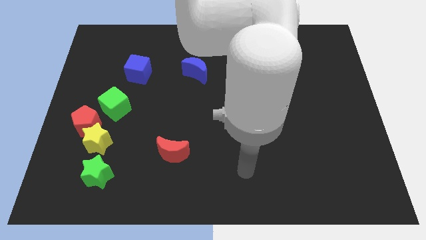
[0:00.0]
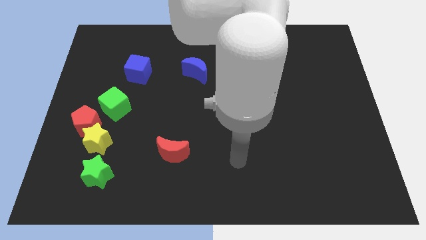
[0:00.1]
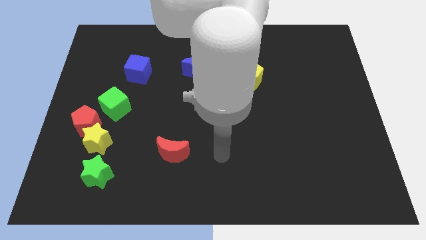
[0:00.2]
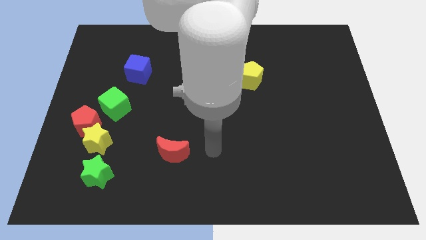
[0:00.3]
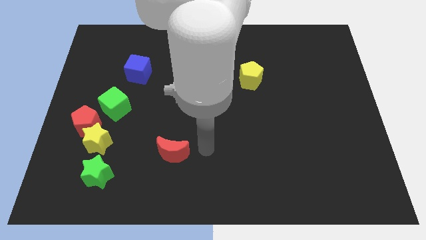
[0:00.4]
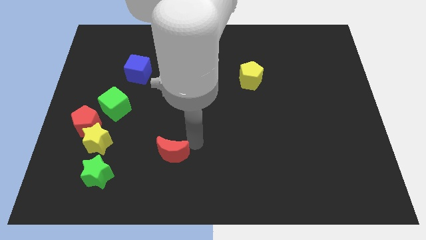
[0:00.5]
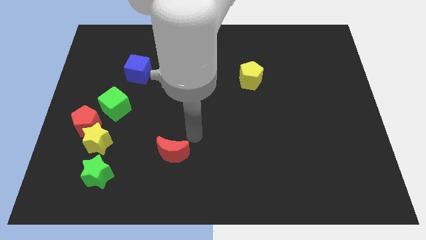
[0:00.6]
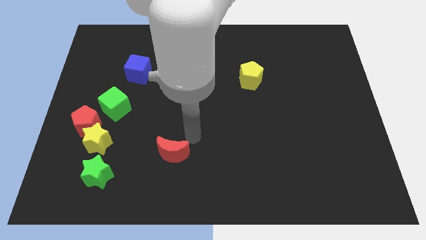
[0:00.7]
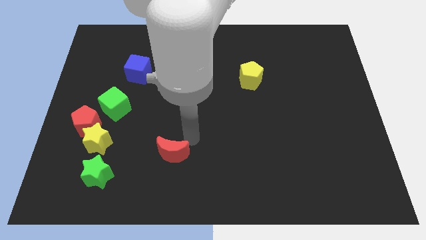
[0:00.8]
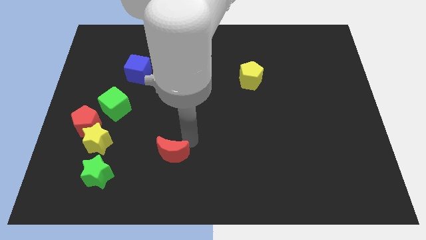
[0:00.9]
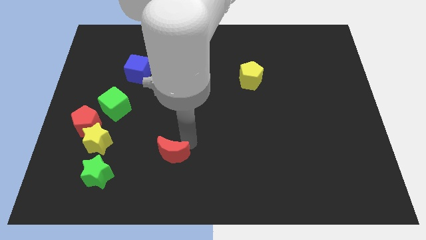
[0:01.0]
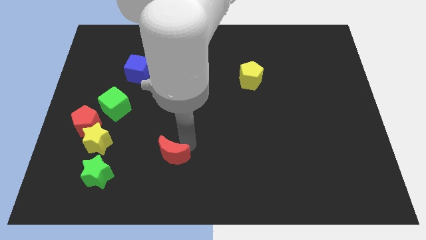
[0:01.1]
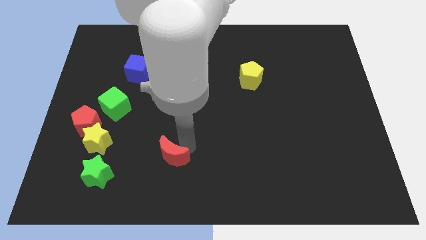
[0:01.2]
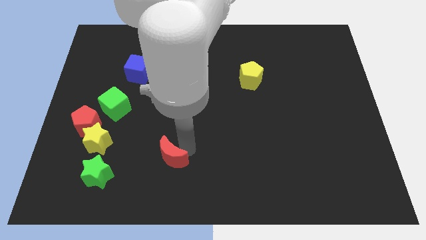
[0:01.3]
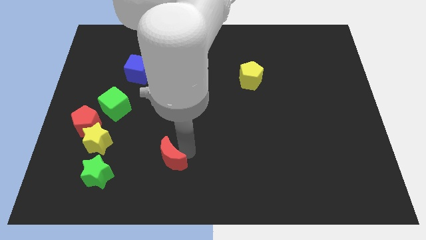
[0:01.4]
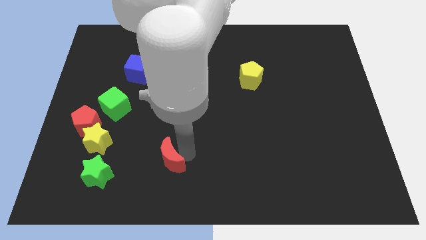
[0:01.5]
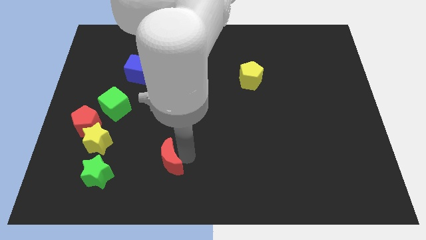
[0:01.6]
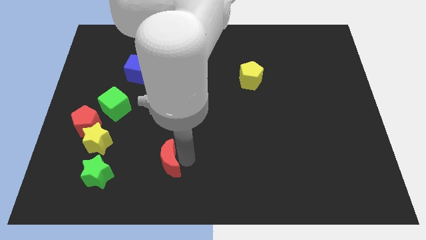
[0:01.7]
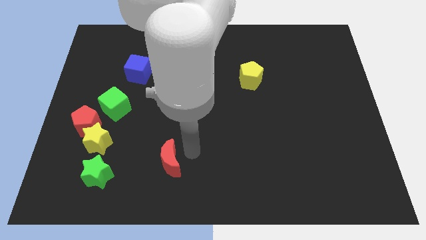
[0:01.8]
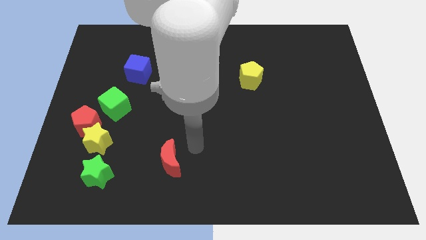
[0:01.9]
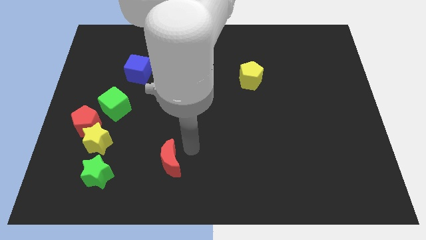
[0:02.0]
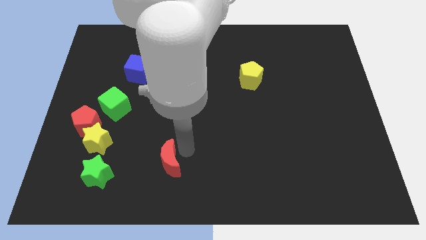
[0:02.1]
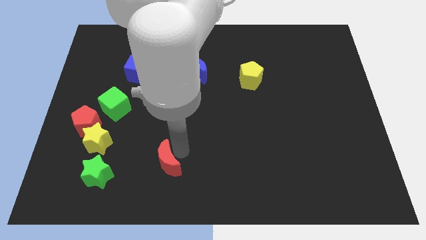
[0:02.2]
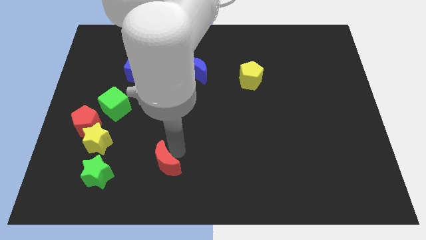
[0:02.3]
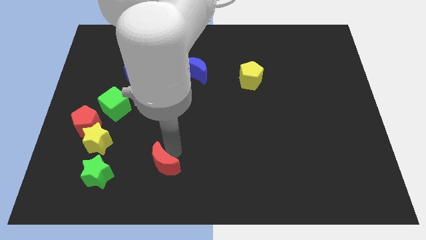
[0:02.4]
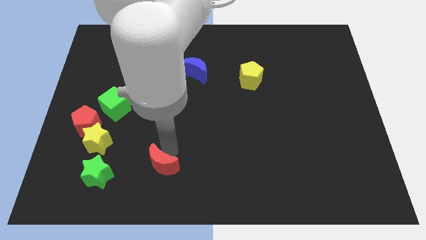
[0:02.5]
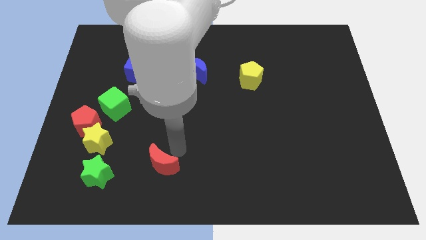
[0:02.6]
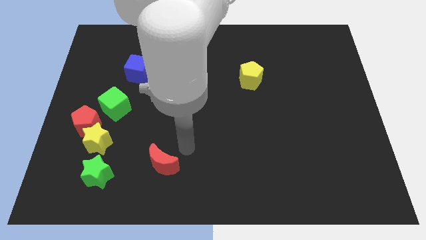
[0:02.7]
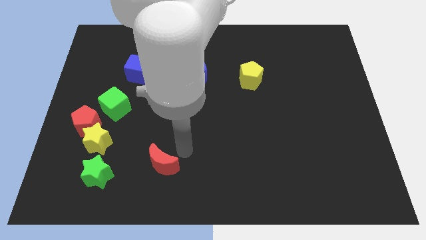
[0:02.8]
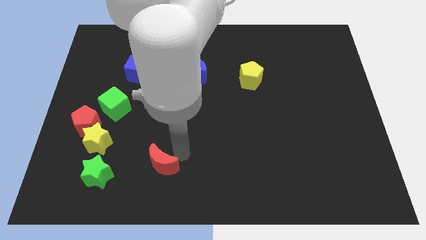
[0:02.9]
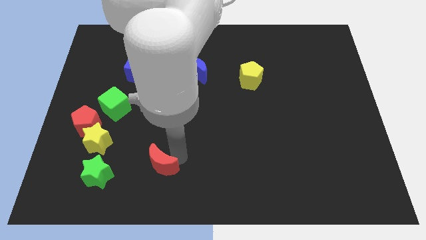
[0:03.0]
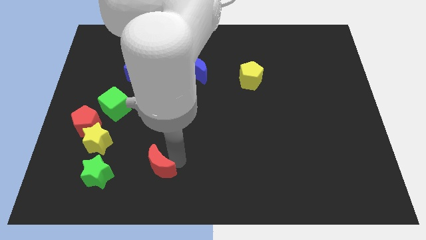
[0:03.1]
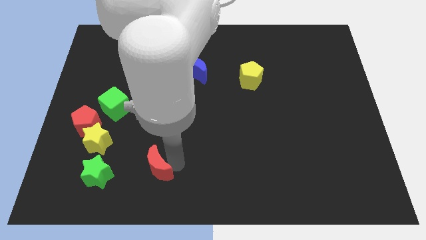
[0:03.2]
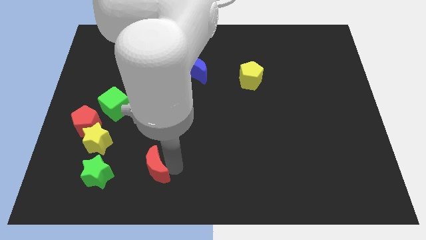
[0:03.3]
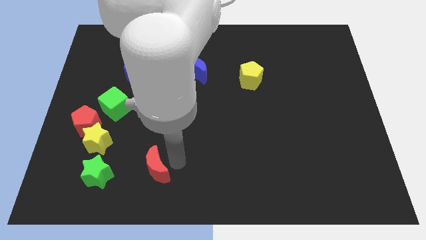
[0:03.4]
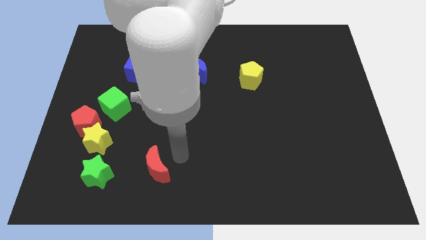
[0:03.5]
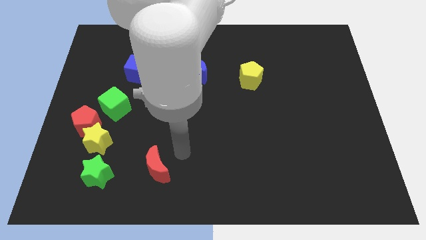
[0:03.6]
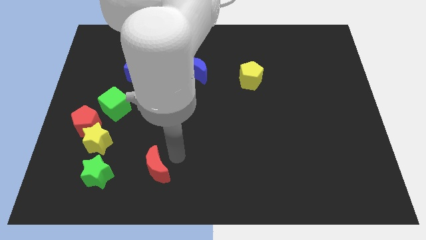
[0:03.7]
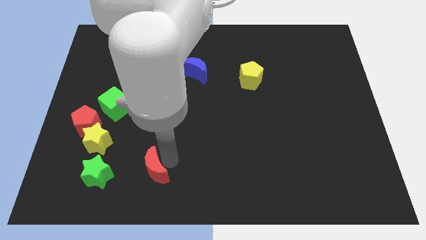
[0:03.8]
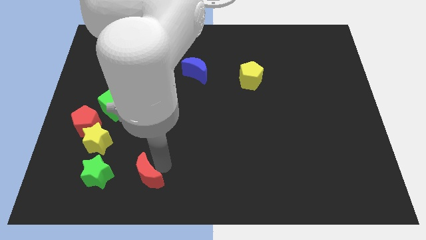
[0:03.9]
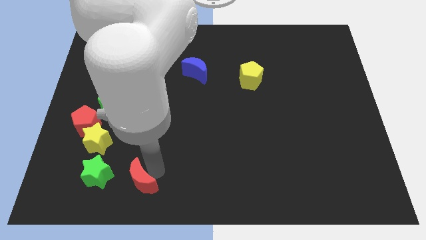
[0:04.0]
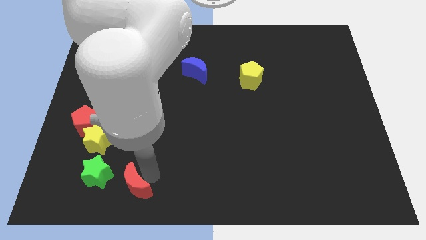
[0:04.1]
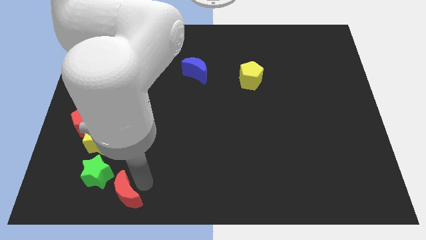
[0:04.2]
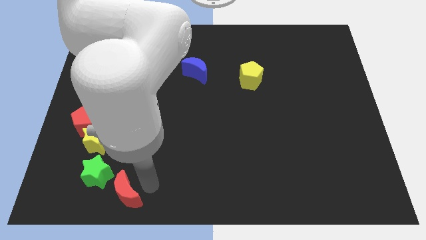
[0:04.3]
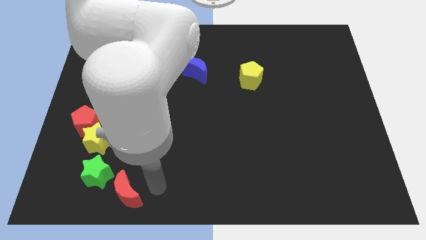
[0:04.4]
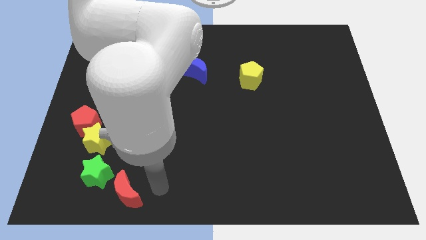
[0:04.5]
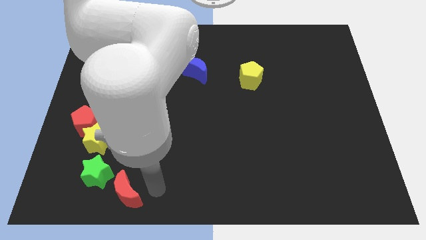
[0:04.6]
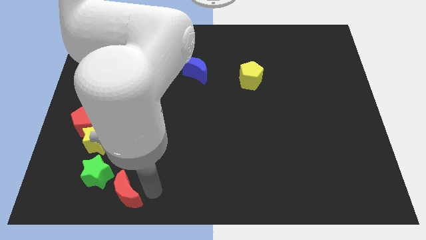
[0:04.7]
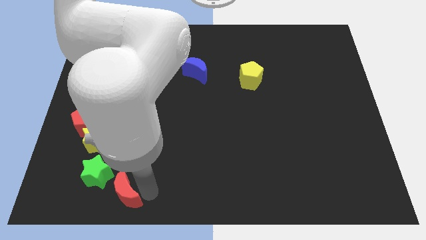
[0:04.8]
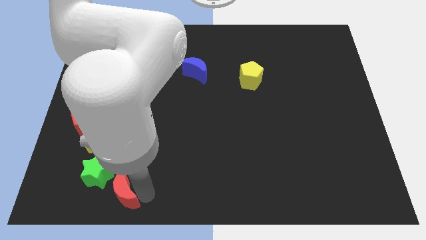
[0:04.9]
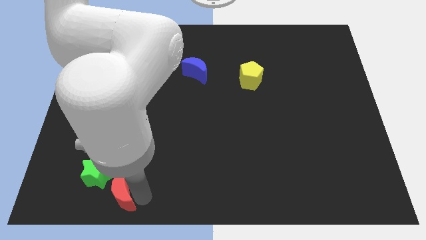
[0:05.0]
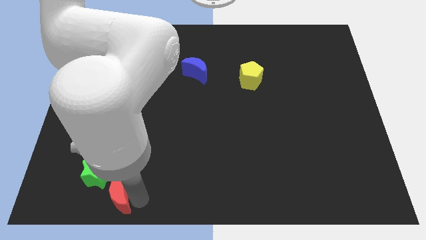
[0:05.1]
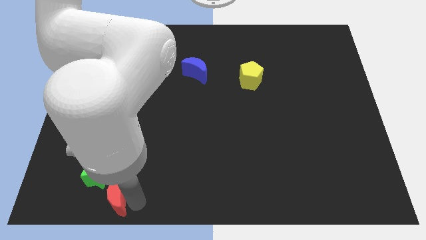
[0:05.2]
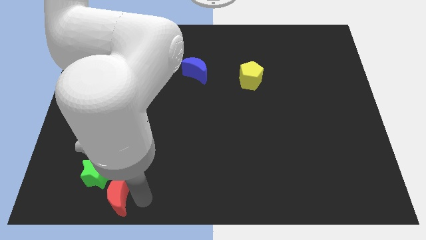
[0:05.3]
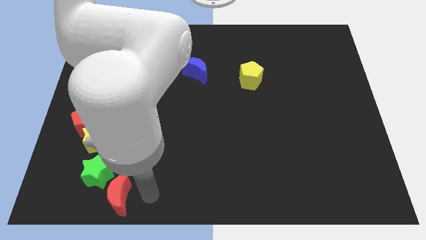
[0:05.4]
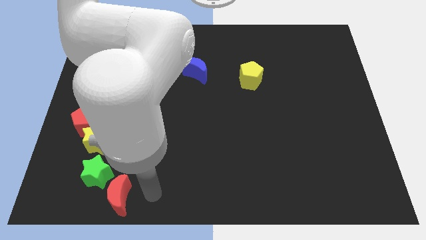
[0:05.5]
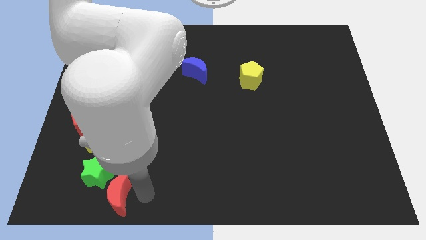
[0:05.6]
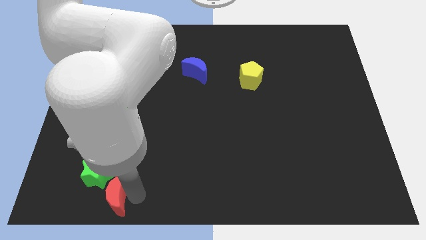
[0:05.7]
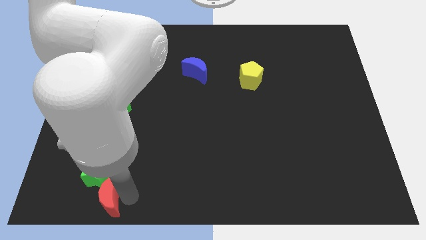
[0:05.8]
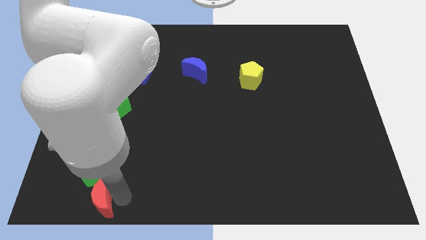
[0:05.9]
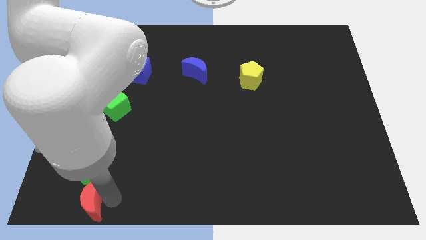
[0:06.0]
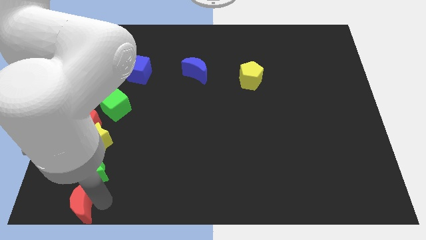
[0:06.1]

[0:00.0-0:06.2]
move the red moon to the bottom left corner

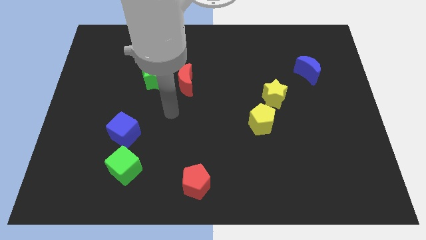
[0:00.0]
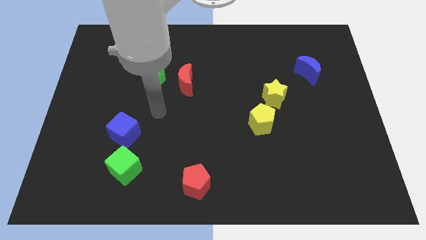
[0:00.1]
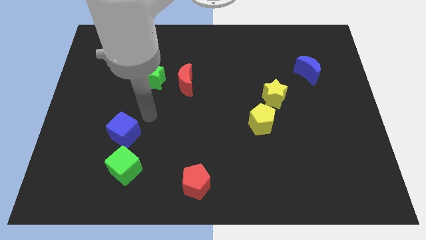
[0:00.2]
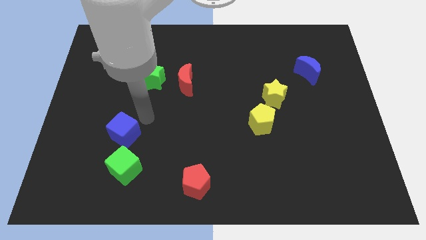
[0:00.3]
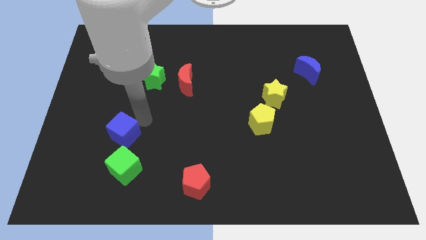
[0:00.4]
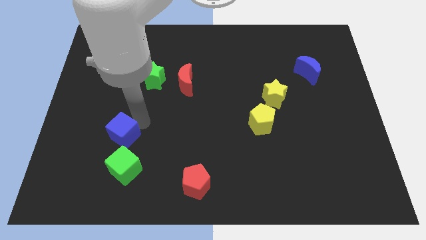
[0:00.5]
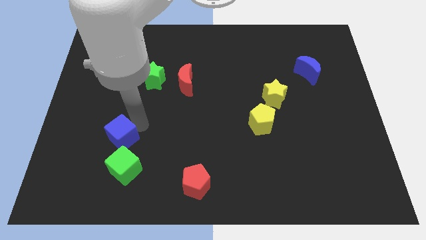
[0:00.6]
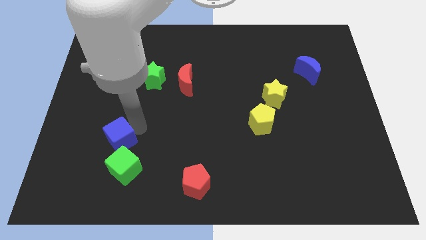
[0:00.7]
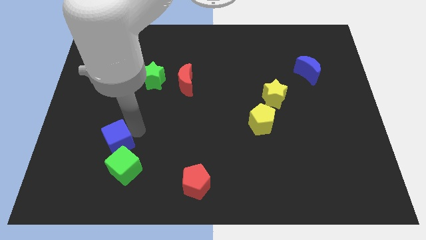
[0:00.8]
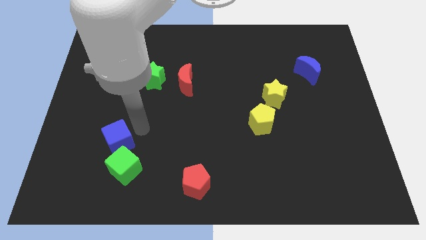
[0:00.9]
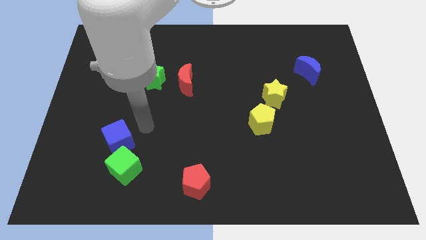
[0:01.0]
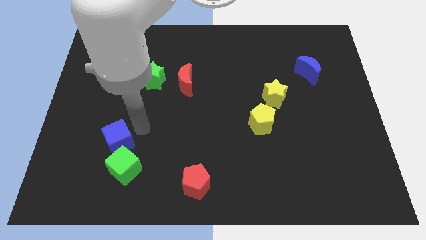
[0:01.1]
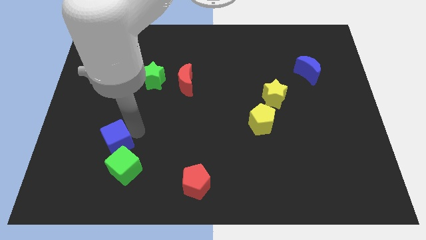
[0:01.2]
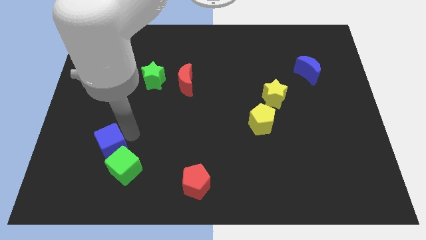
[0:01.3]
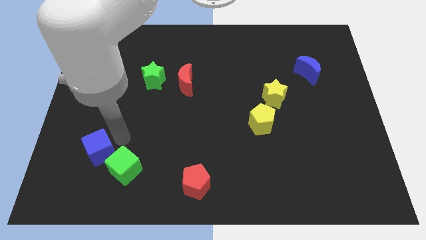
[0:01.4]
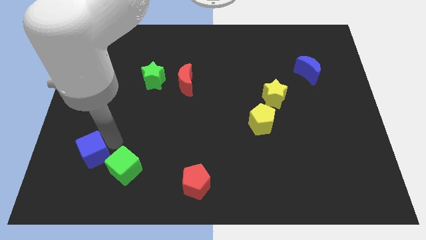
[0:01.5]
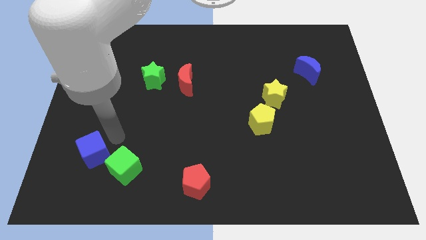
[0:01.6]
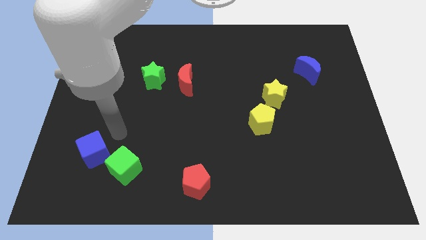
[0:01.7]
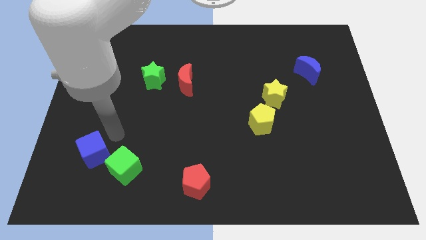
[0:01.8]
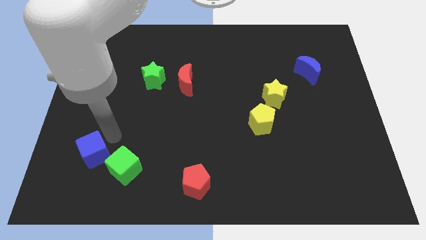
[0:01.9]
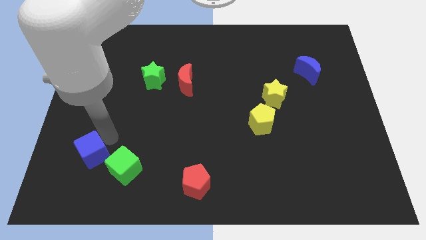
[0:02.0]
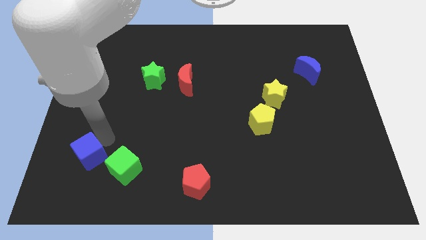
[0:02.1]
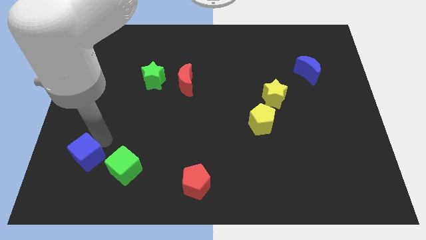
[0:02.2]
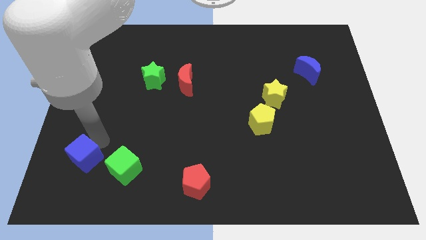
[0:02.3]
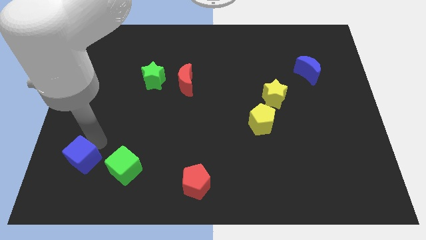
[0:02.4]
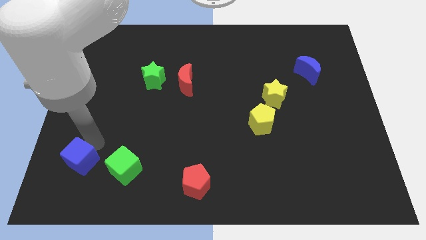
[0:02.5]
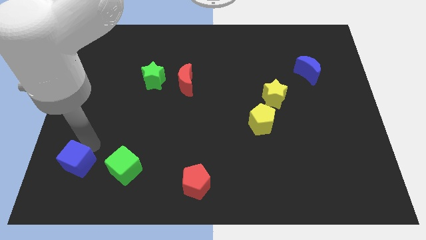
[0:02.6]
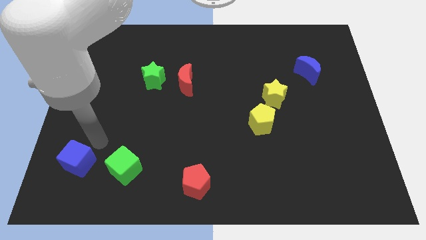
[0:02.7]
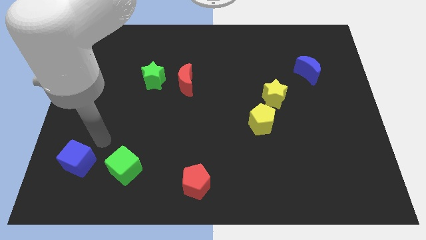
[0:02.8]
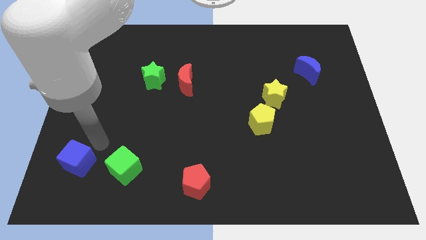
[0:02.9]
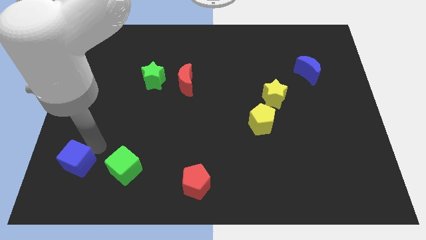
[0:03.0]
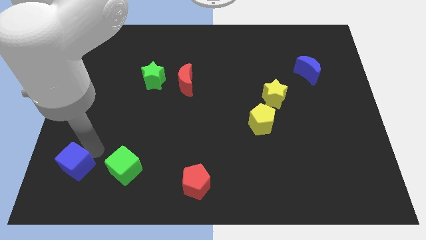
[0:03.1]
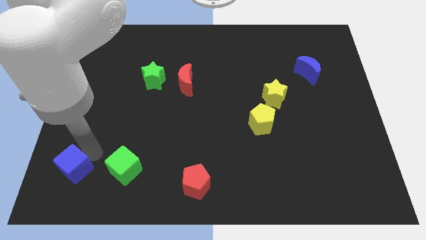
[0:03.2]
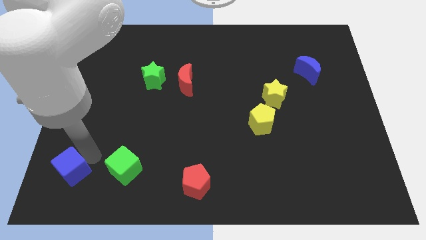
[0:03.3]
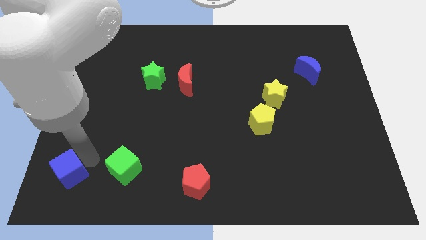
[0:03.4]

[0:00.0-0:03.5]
push the blue cube to the bottom left of the board
